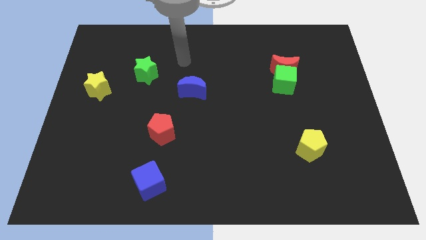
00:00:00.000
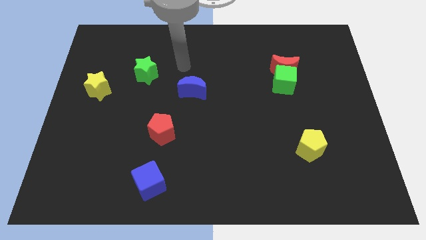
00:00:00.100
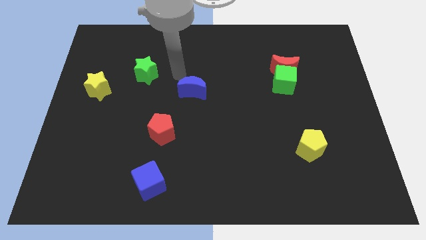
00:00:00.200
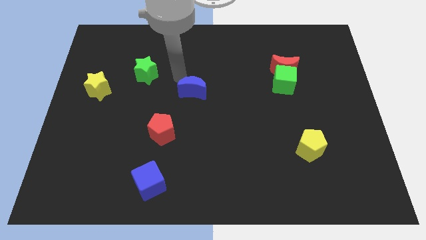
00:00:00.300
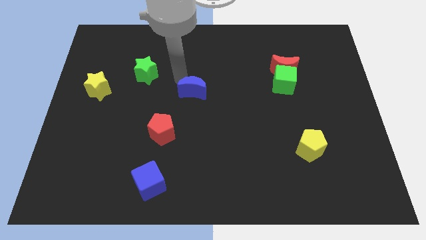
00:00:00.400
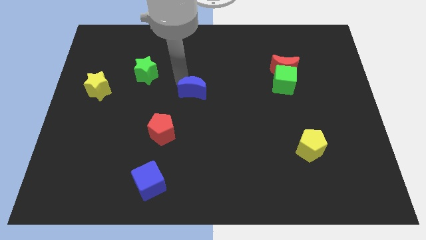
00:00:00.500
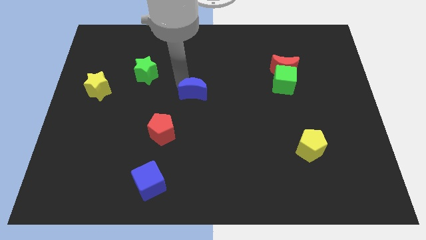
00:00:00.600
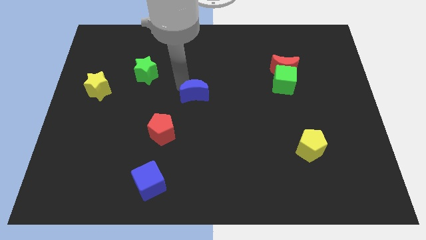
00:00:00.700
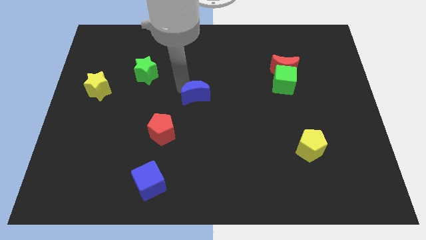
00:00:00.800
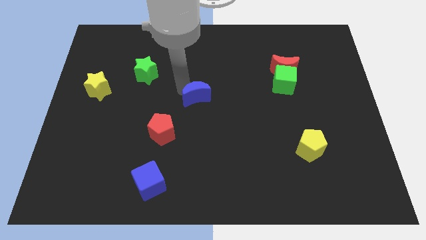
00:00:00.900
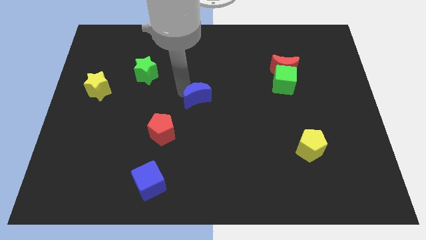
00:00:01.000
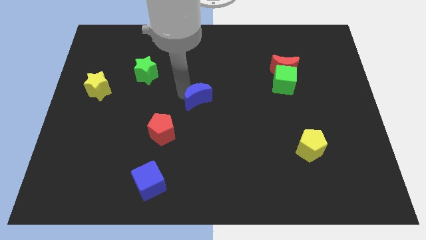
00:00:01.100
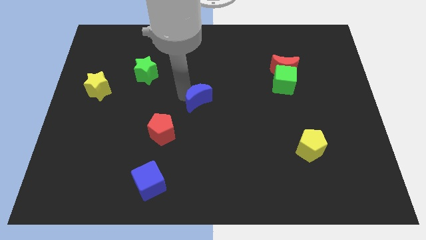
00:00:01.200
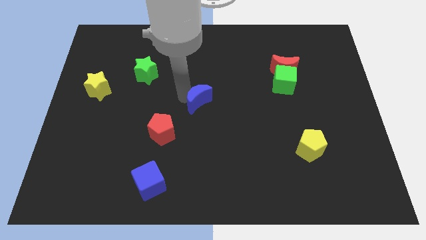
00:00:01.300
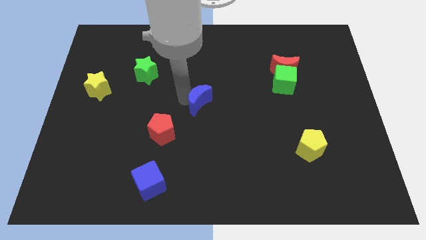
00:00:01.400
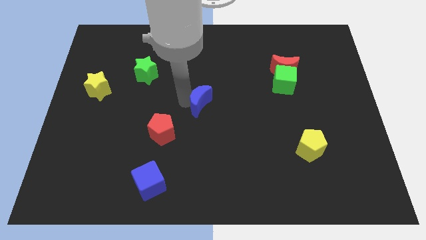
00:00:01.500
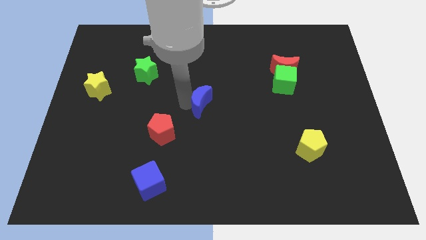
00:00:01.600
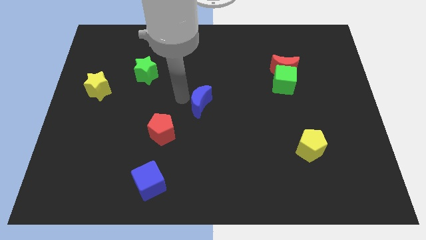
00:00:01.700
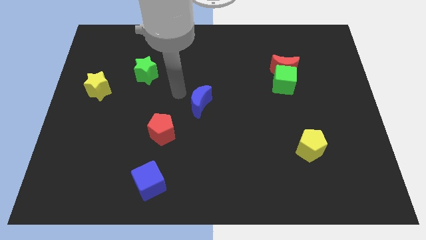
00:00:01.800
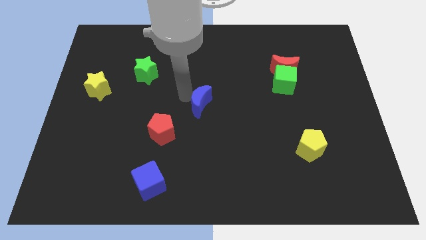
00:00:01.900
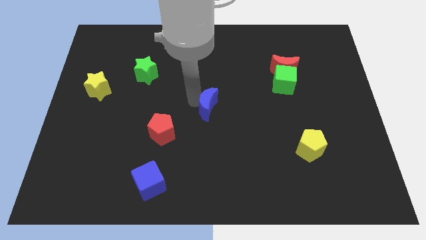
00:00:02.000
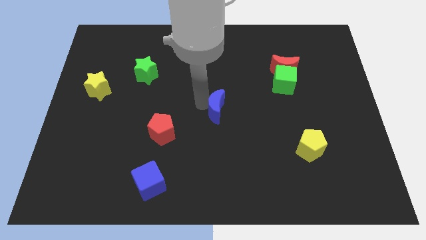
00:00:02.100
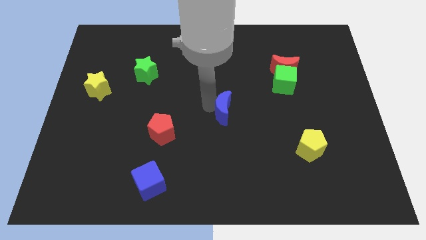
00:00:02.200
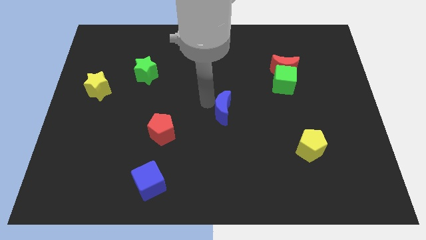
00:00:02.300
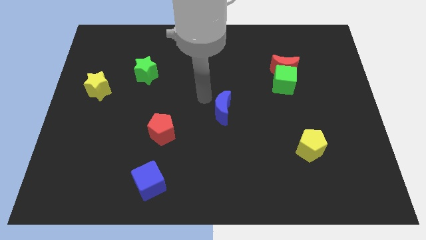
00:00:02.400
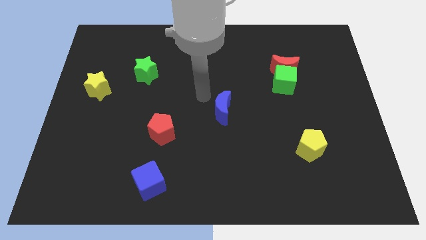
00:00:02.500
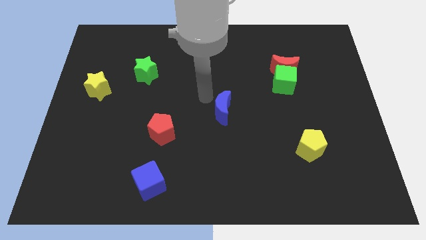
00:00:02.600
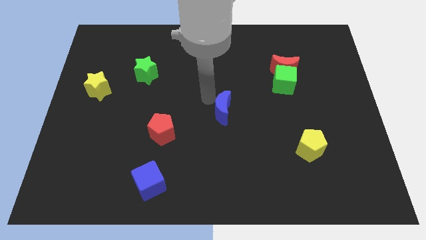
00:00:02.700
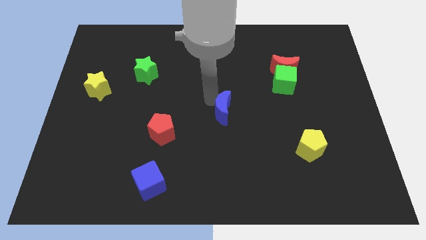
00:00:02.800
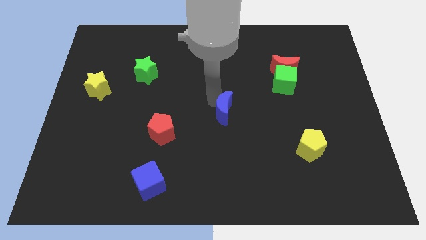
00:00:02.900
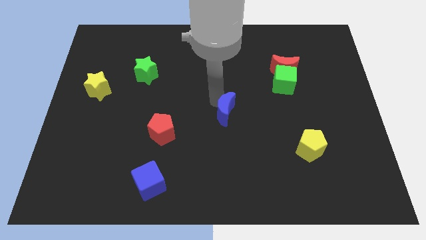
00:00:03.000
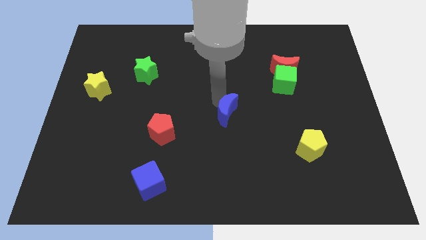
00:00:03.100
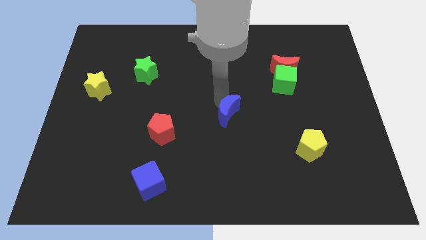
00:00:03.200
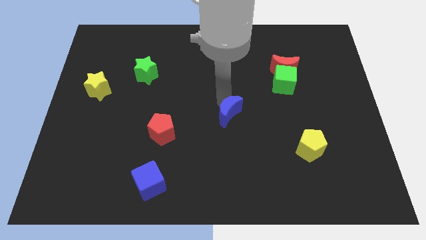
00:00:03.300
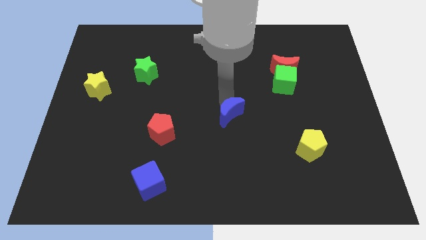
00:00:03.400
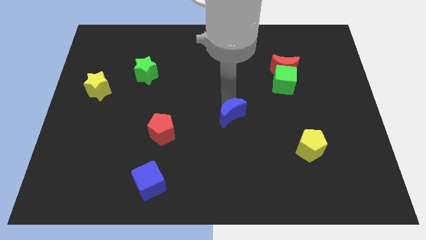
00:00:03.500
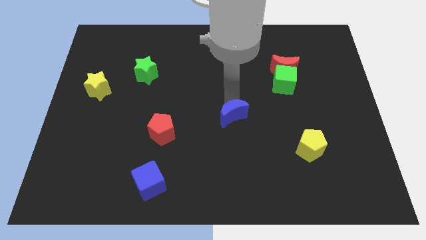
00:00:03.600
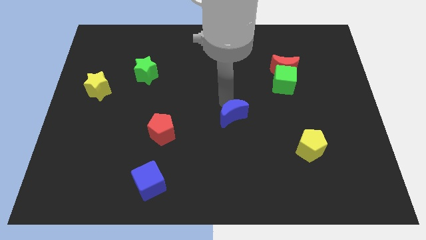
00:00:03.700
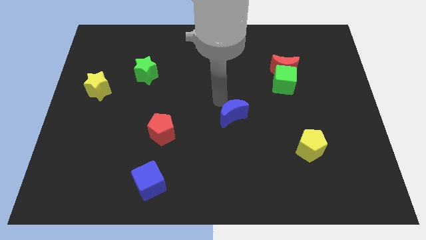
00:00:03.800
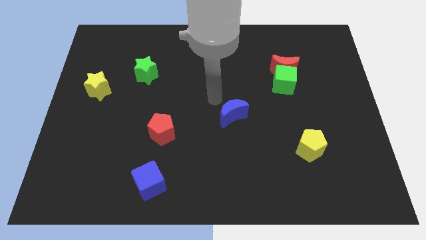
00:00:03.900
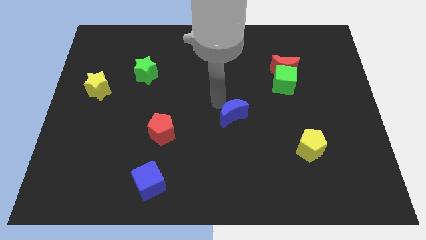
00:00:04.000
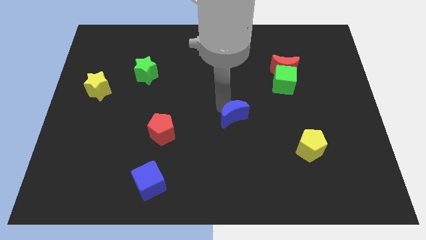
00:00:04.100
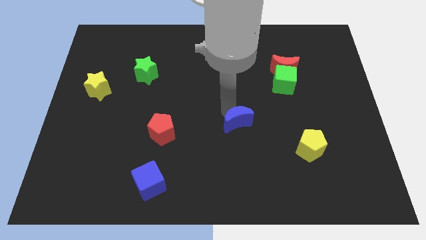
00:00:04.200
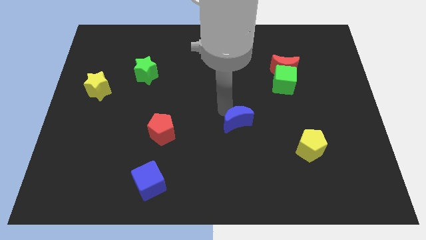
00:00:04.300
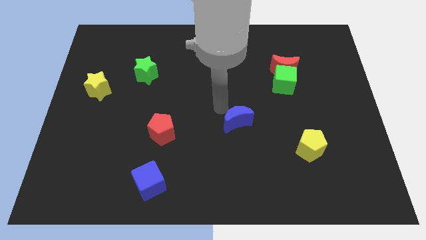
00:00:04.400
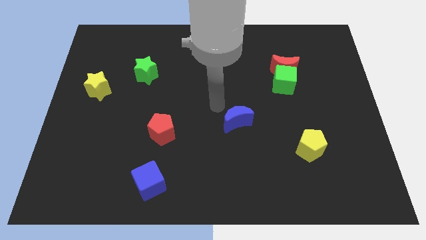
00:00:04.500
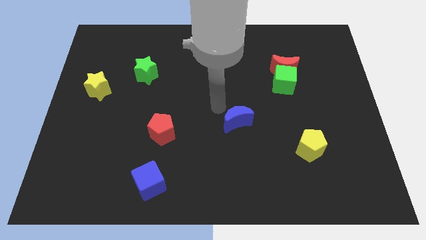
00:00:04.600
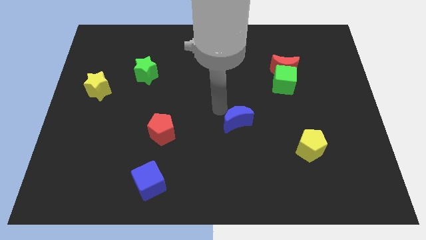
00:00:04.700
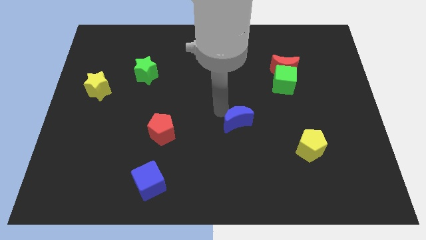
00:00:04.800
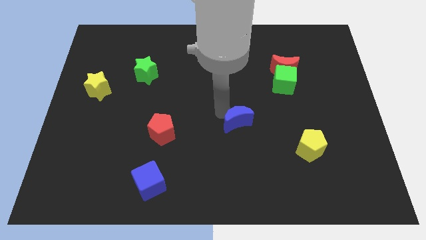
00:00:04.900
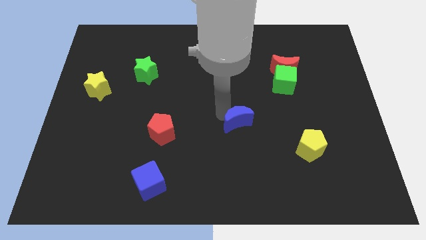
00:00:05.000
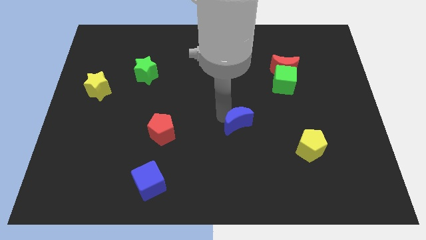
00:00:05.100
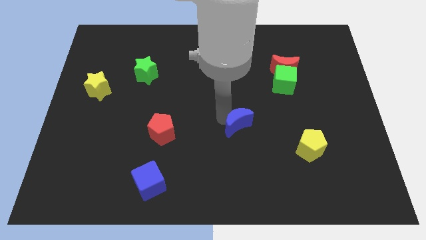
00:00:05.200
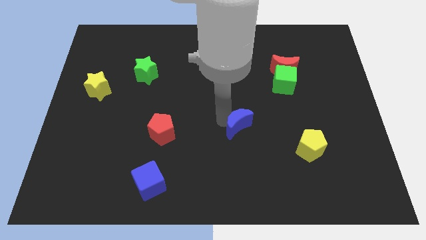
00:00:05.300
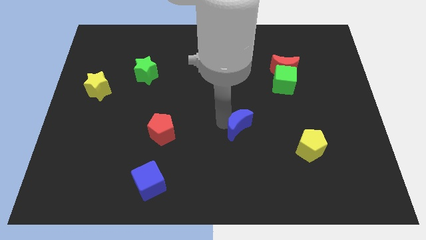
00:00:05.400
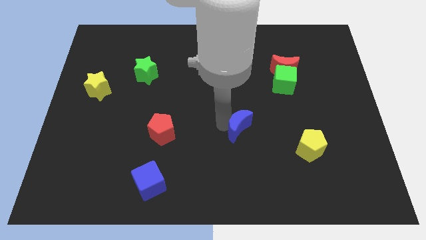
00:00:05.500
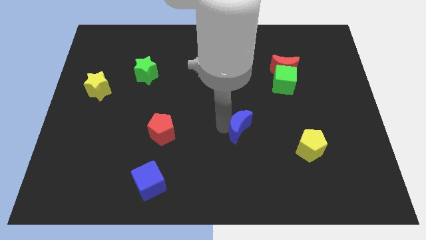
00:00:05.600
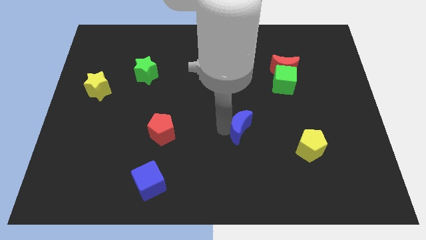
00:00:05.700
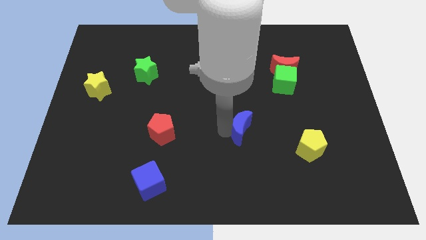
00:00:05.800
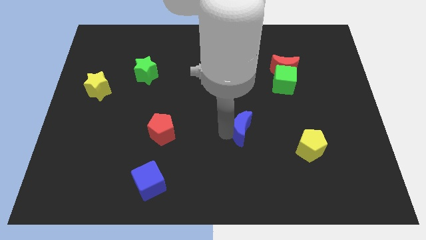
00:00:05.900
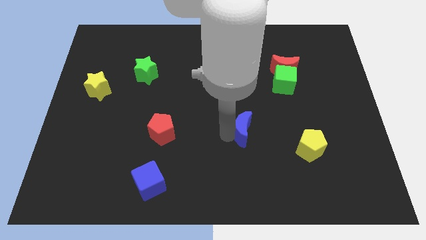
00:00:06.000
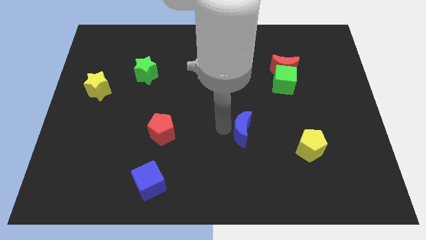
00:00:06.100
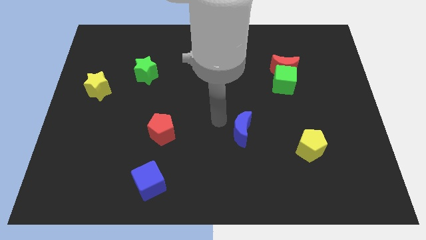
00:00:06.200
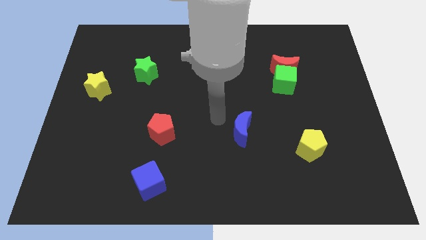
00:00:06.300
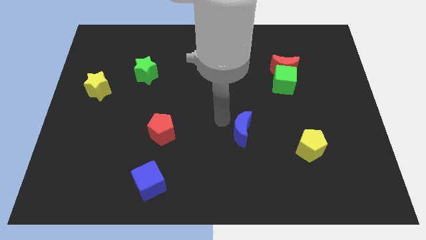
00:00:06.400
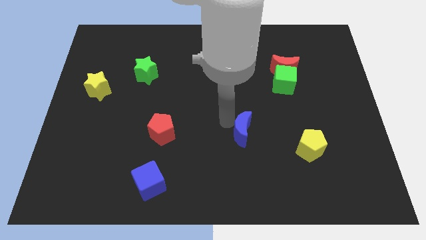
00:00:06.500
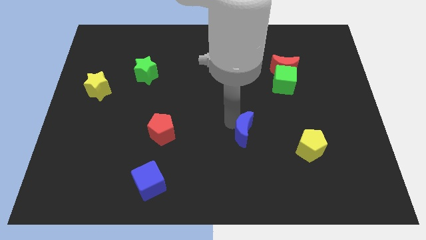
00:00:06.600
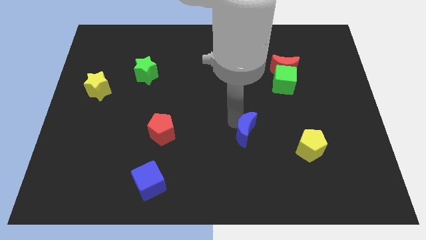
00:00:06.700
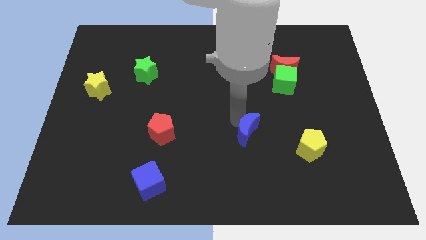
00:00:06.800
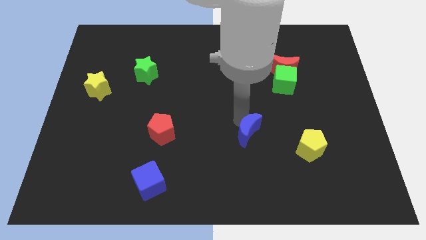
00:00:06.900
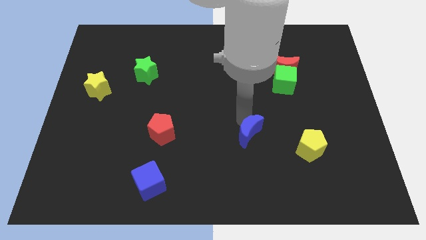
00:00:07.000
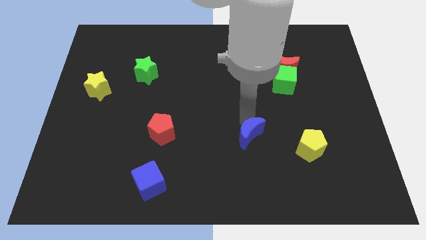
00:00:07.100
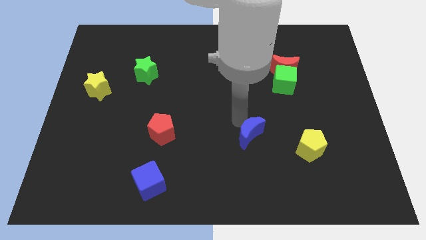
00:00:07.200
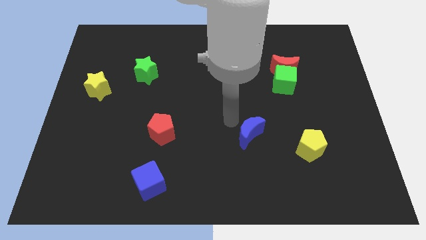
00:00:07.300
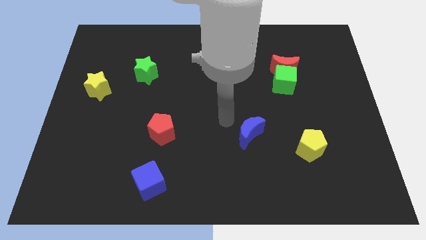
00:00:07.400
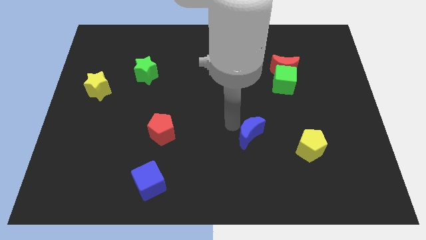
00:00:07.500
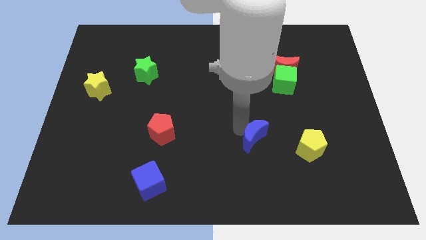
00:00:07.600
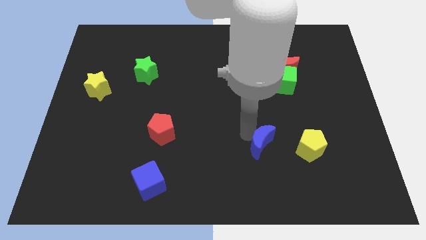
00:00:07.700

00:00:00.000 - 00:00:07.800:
slide the blue moon diagonally downwards and right

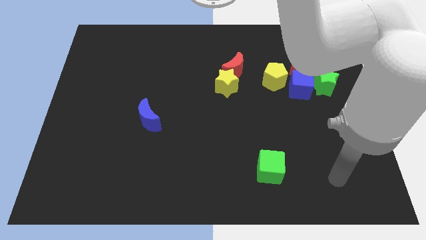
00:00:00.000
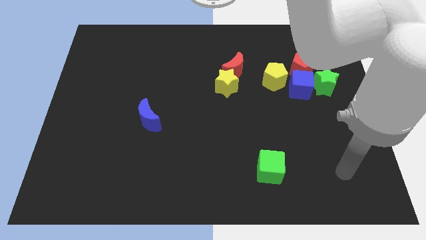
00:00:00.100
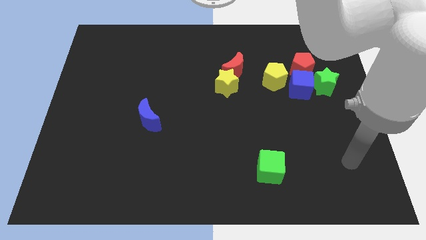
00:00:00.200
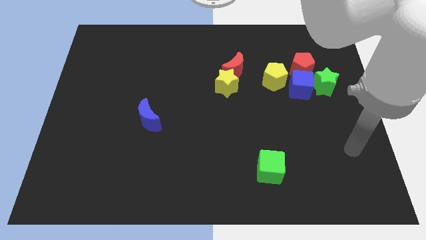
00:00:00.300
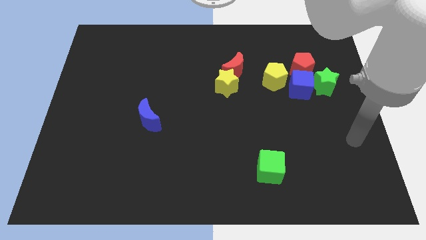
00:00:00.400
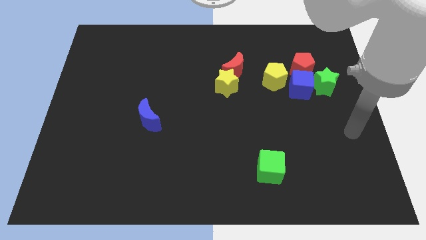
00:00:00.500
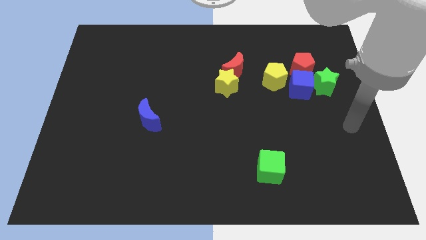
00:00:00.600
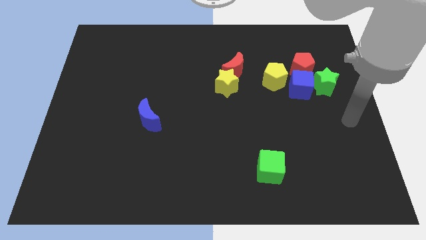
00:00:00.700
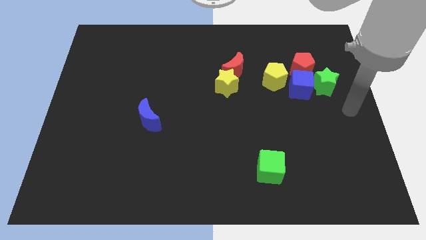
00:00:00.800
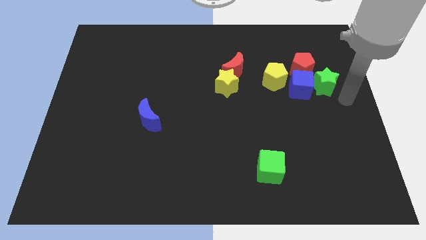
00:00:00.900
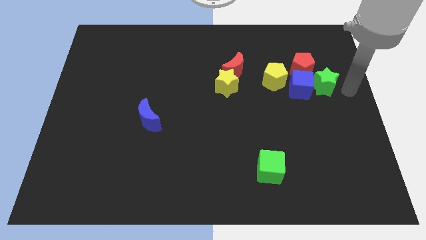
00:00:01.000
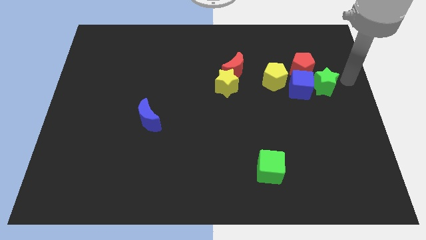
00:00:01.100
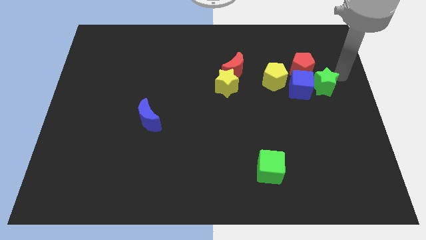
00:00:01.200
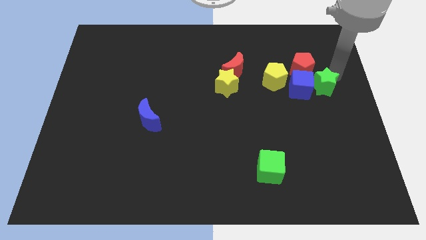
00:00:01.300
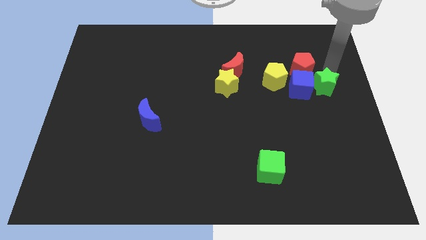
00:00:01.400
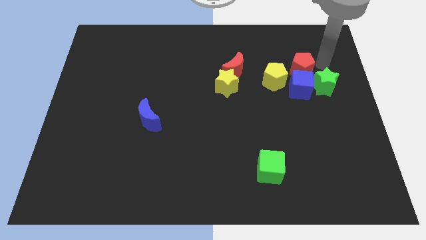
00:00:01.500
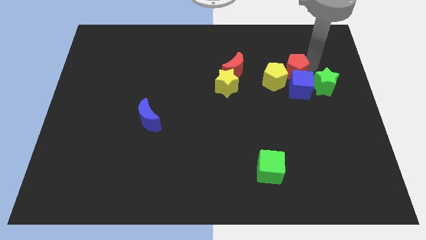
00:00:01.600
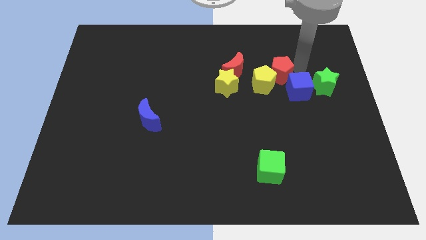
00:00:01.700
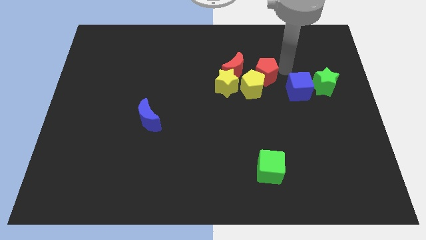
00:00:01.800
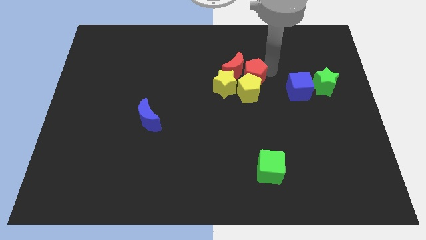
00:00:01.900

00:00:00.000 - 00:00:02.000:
push the yellow pentagon slightly down and left
